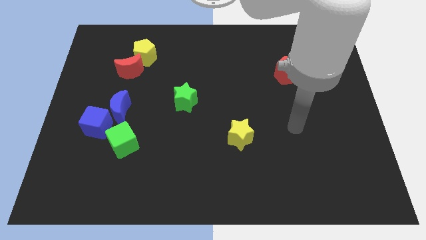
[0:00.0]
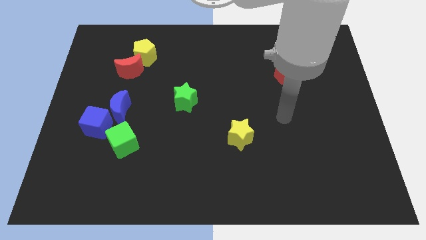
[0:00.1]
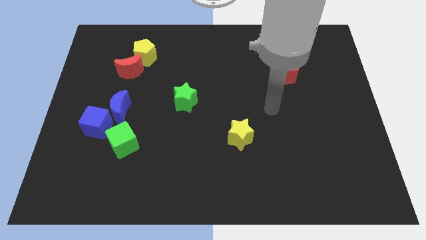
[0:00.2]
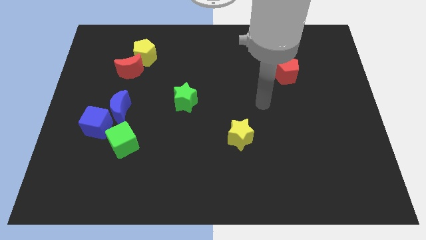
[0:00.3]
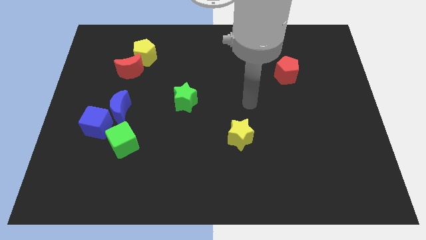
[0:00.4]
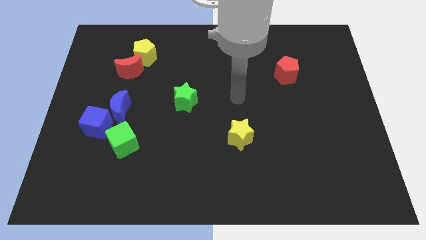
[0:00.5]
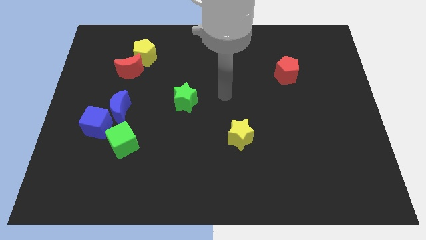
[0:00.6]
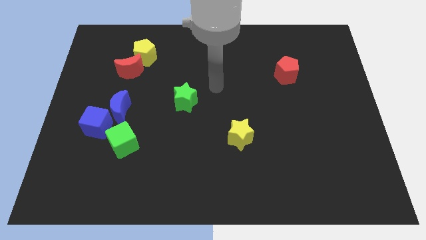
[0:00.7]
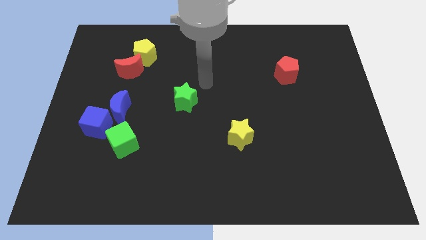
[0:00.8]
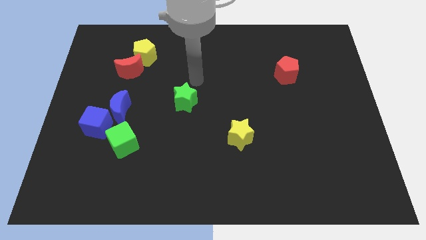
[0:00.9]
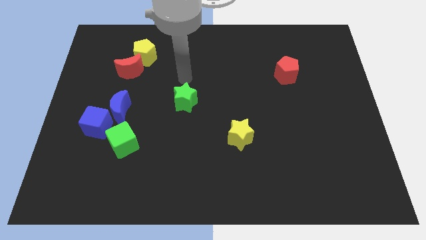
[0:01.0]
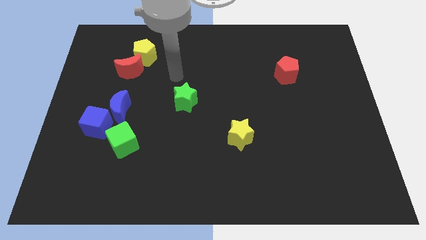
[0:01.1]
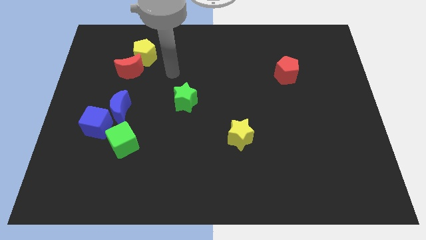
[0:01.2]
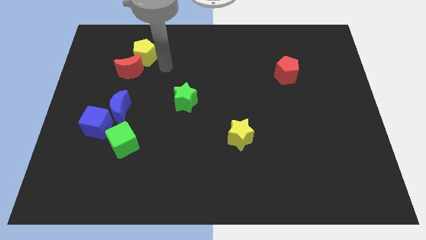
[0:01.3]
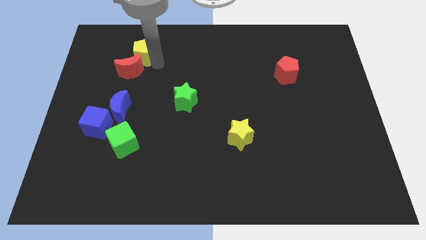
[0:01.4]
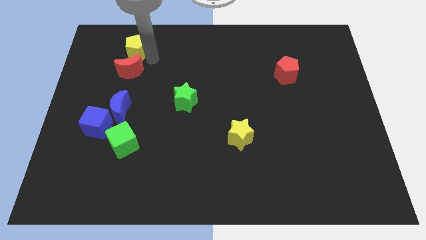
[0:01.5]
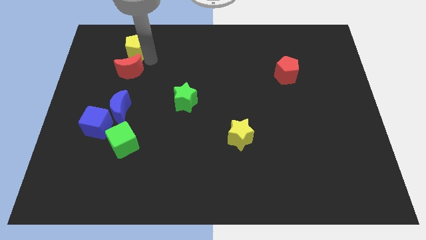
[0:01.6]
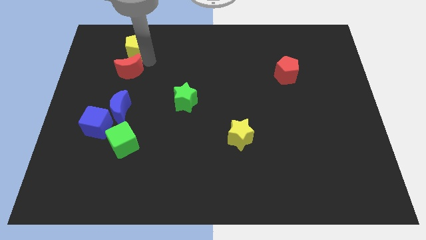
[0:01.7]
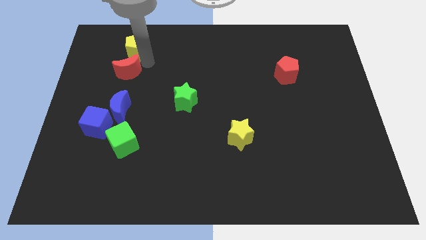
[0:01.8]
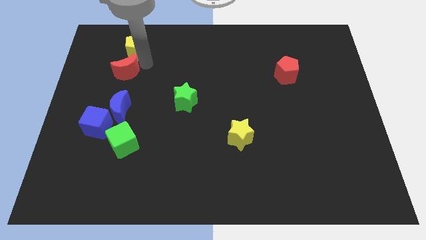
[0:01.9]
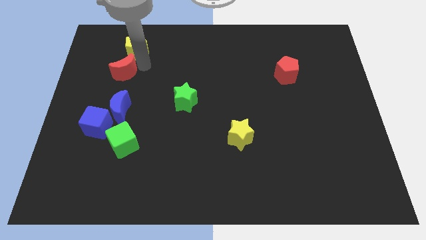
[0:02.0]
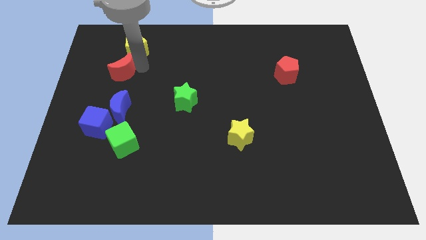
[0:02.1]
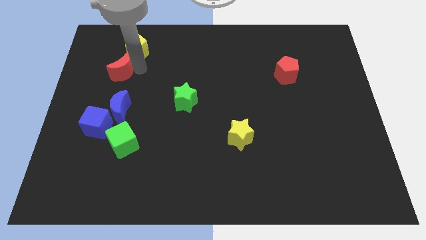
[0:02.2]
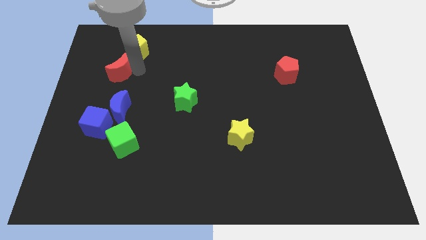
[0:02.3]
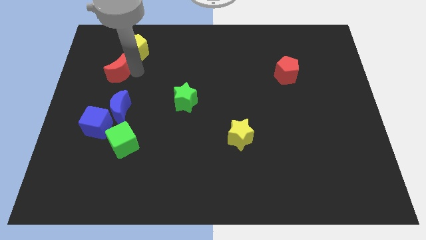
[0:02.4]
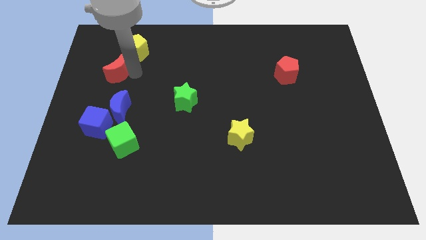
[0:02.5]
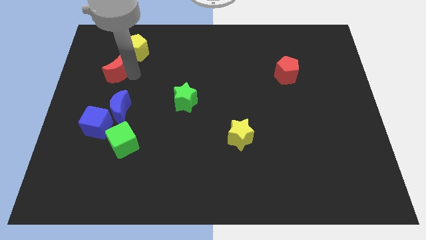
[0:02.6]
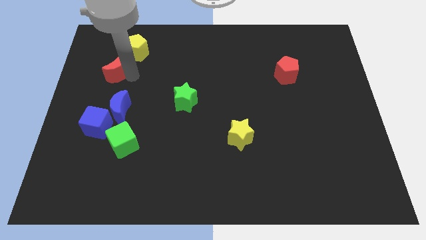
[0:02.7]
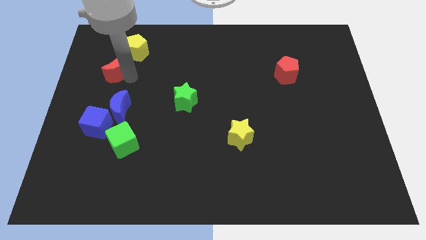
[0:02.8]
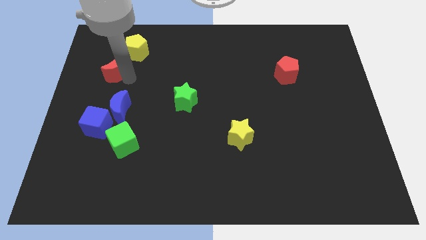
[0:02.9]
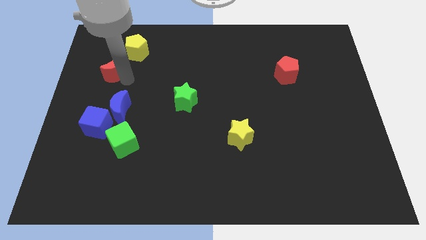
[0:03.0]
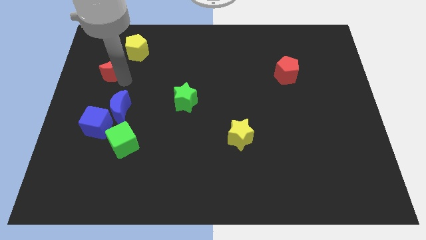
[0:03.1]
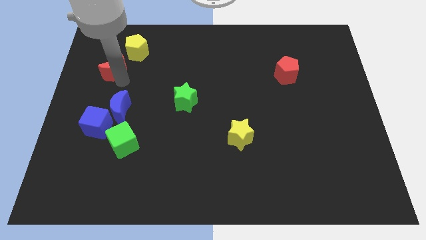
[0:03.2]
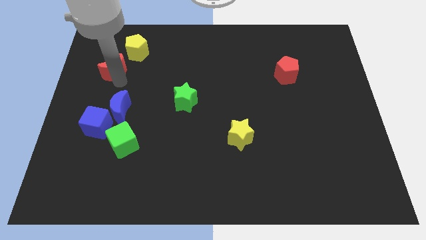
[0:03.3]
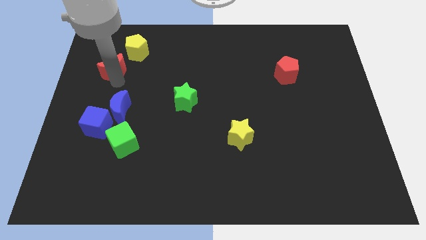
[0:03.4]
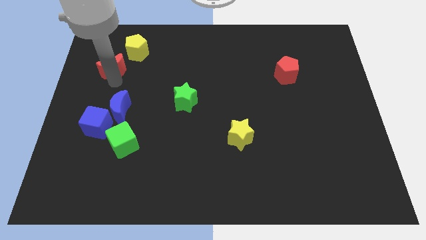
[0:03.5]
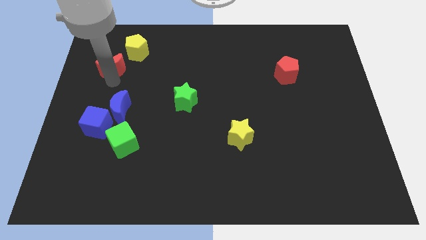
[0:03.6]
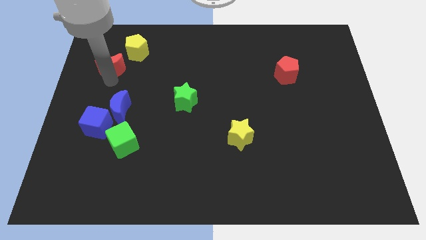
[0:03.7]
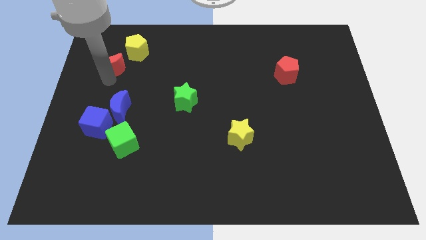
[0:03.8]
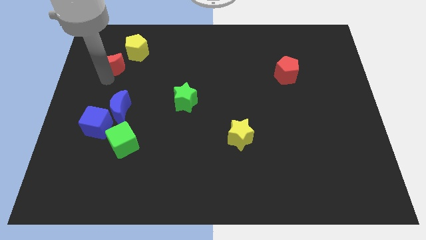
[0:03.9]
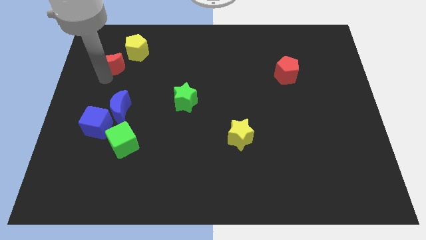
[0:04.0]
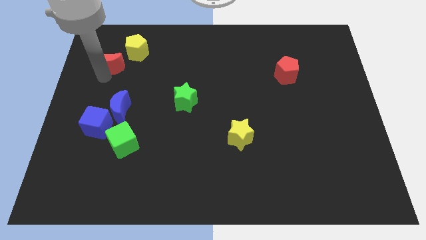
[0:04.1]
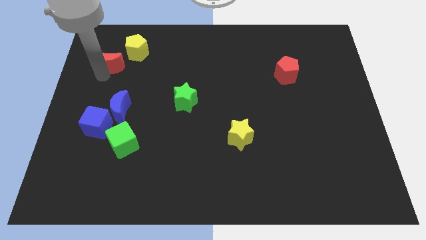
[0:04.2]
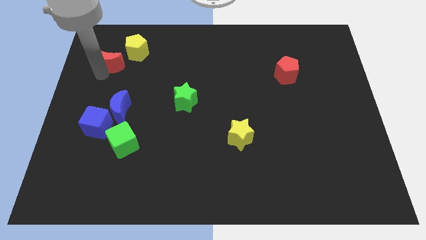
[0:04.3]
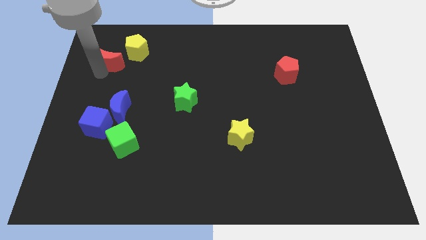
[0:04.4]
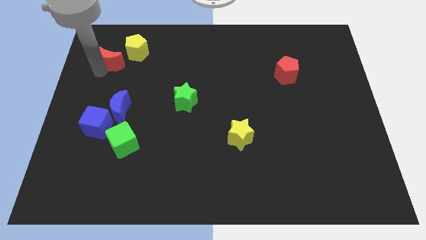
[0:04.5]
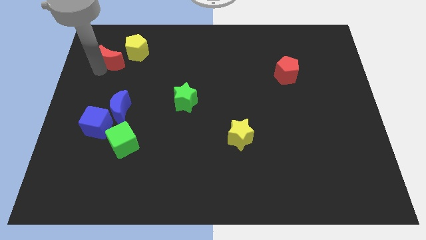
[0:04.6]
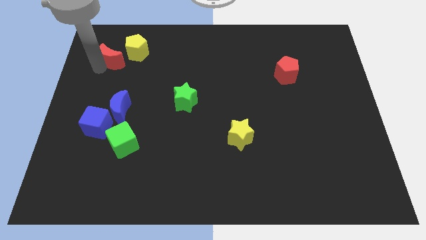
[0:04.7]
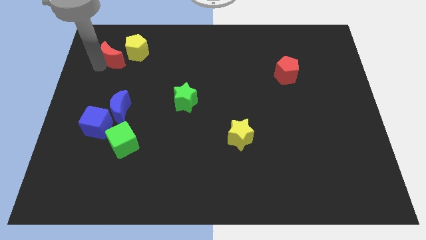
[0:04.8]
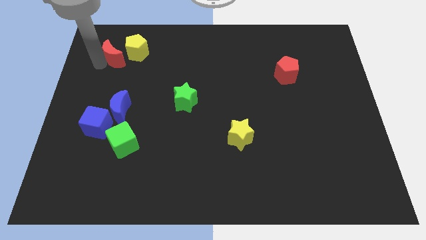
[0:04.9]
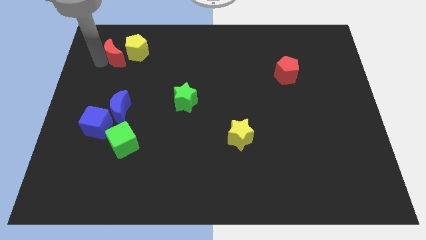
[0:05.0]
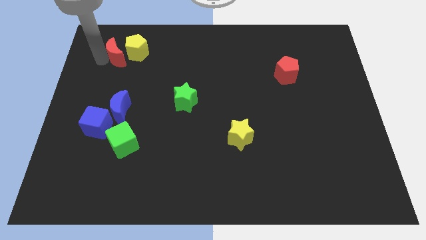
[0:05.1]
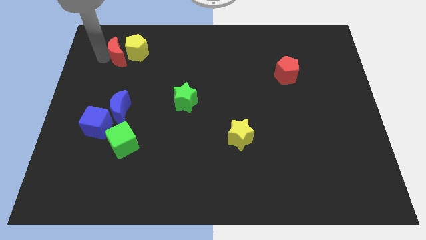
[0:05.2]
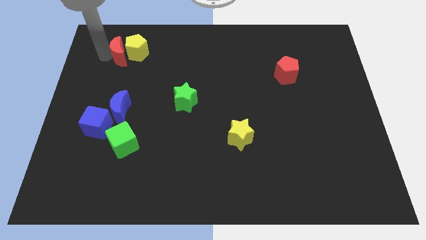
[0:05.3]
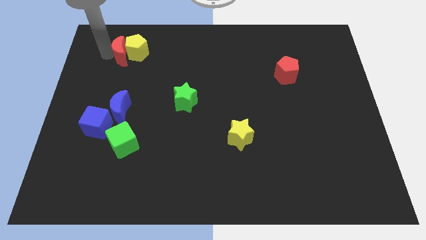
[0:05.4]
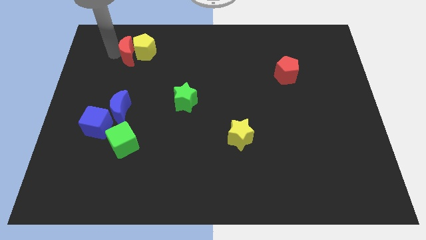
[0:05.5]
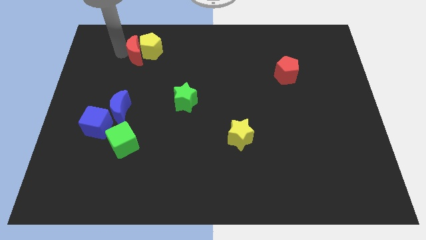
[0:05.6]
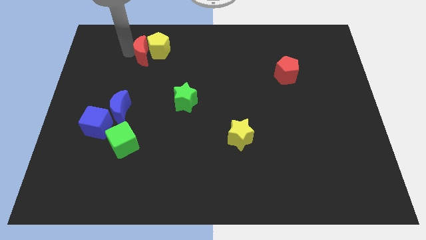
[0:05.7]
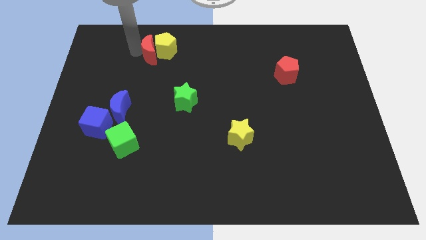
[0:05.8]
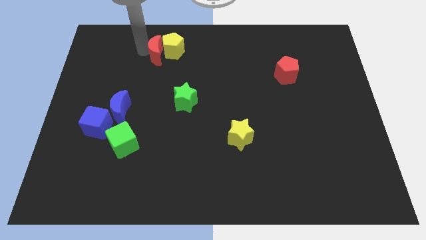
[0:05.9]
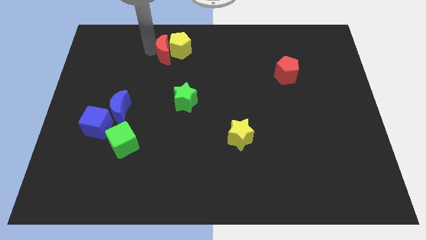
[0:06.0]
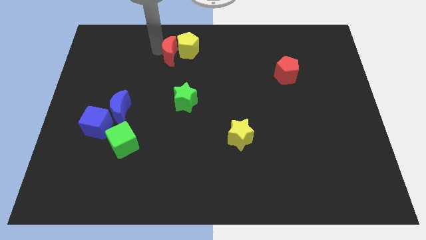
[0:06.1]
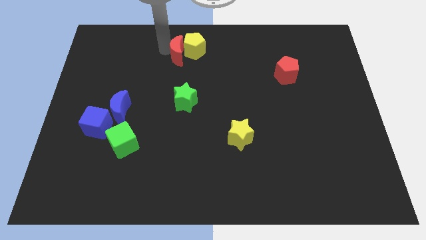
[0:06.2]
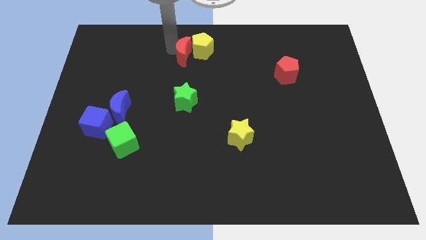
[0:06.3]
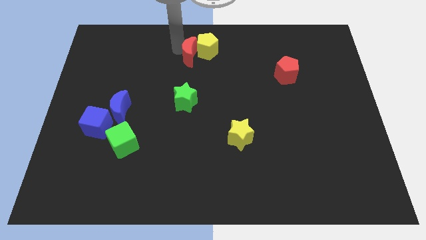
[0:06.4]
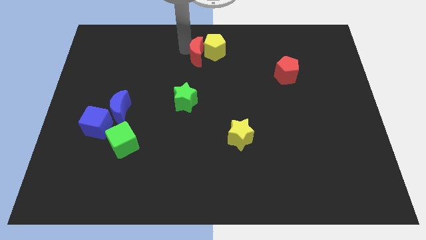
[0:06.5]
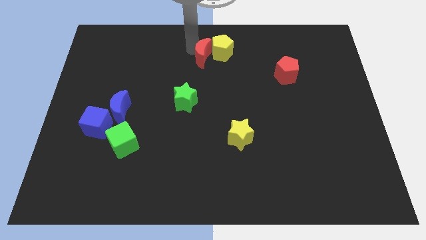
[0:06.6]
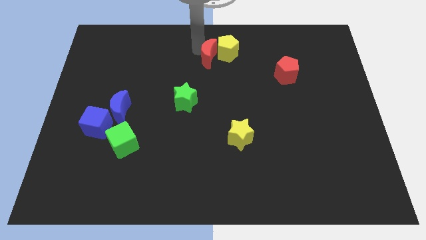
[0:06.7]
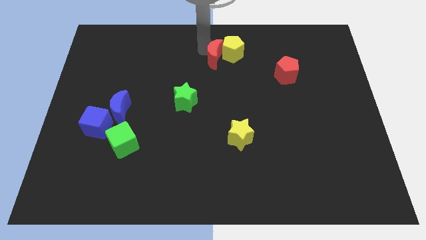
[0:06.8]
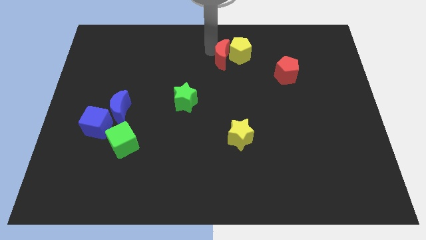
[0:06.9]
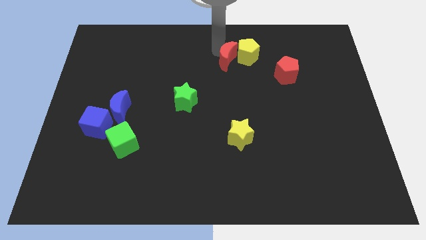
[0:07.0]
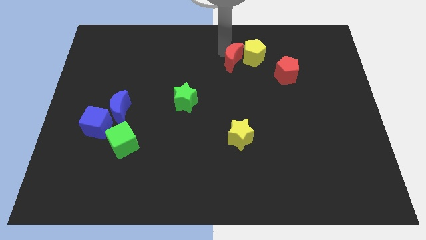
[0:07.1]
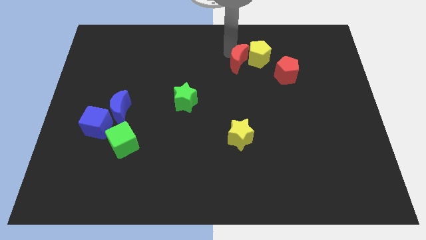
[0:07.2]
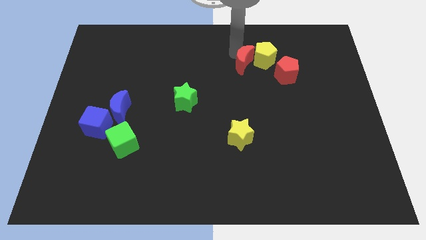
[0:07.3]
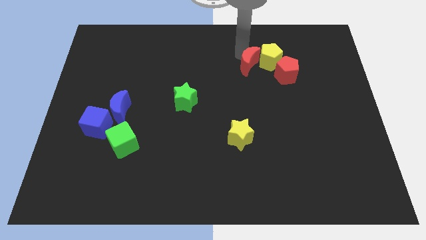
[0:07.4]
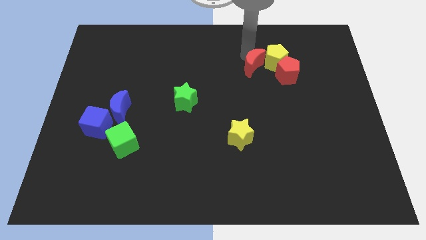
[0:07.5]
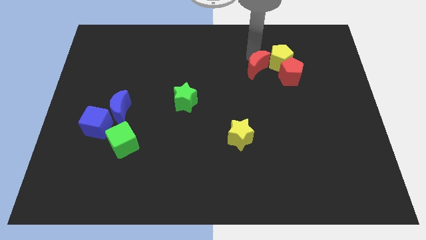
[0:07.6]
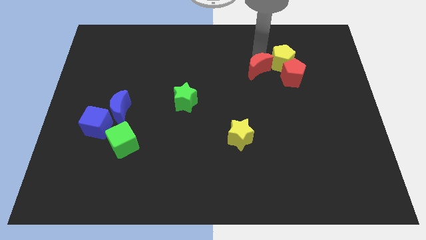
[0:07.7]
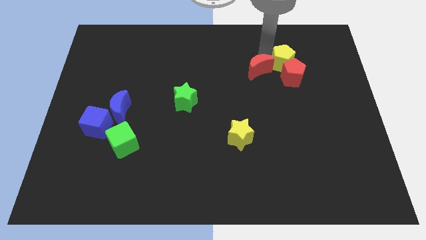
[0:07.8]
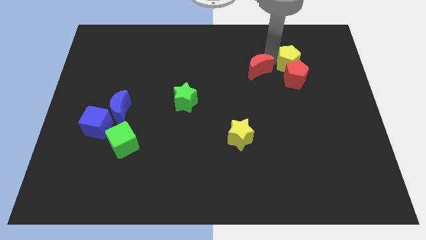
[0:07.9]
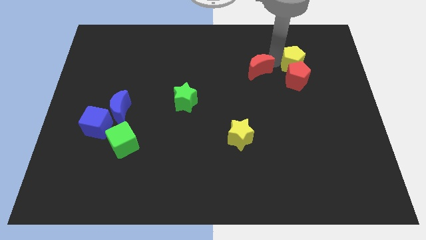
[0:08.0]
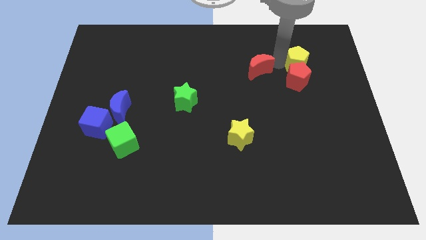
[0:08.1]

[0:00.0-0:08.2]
move the red moon away from the yellow pentagon

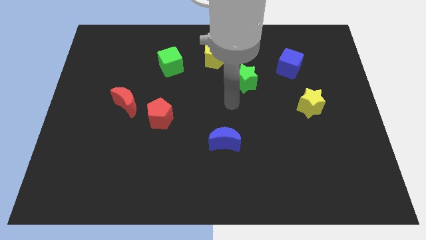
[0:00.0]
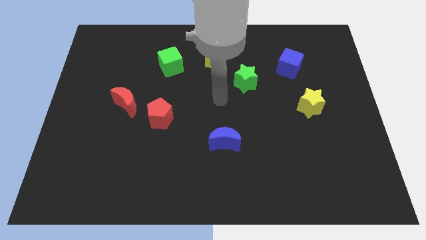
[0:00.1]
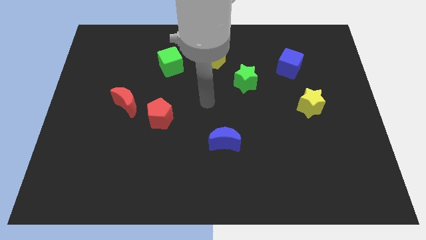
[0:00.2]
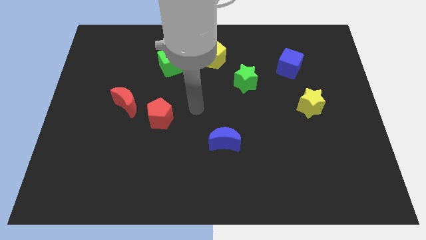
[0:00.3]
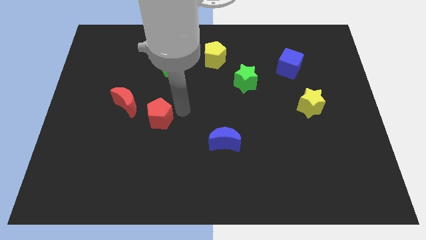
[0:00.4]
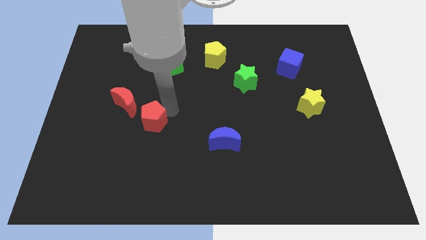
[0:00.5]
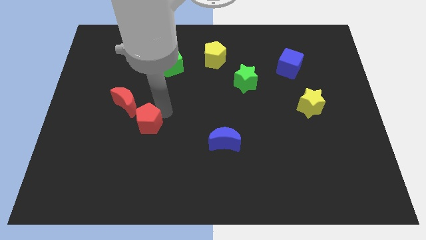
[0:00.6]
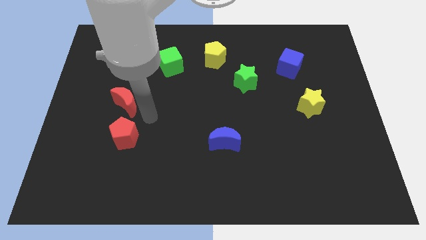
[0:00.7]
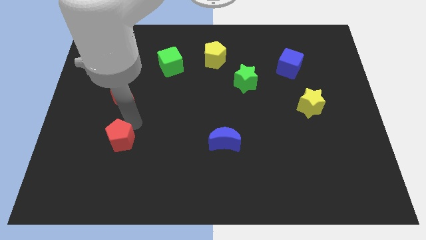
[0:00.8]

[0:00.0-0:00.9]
separate the red moon from the red pentagon

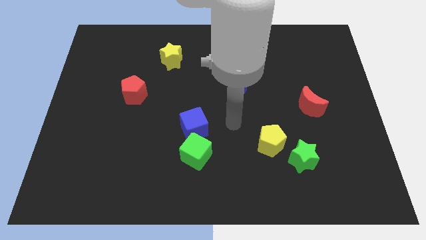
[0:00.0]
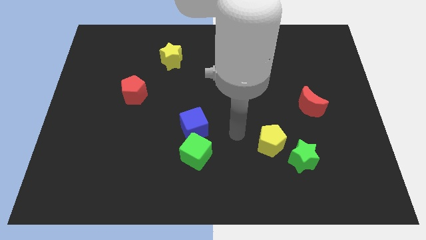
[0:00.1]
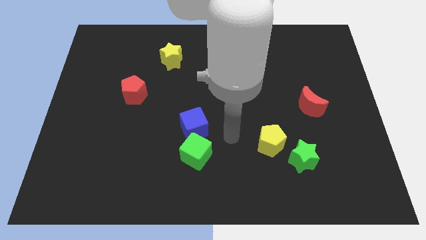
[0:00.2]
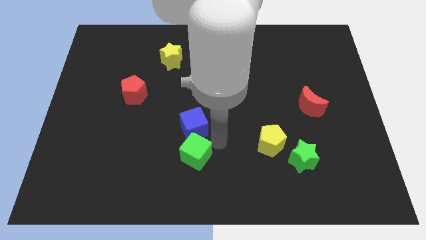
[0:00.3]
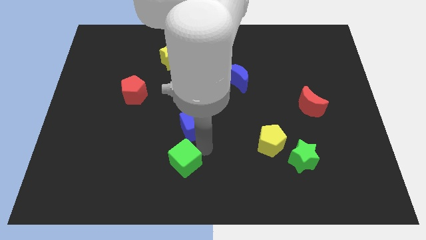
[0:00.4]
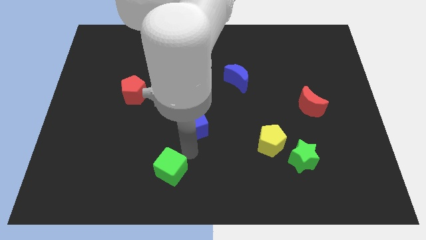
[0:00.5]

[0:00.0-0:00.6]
move the blue cube away from the green cube
